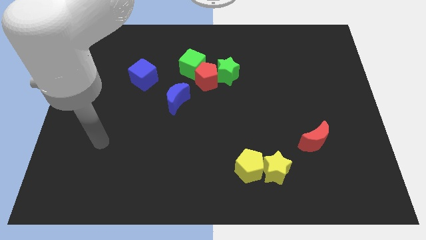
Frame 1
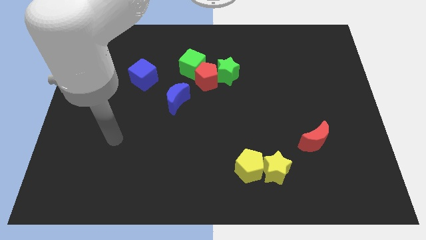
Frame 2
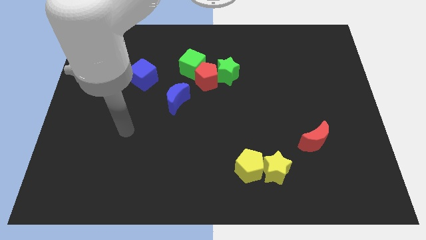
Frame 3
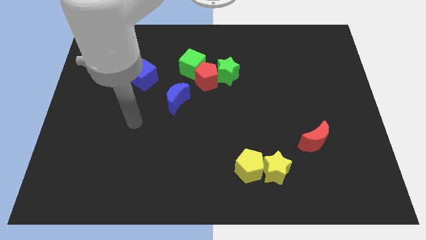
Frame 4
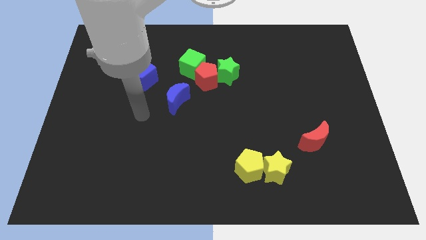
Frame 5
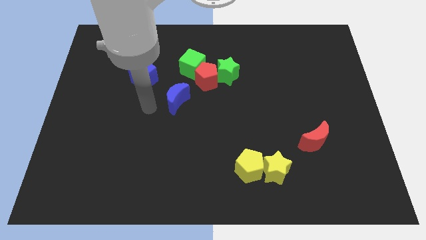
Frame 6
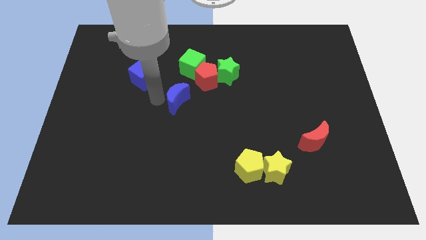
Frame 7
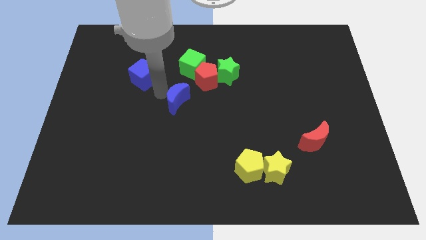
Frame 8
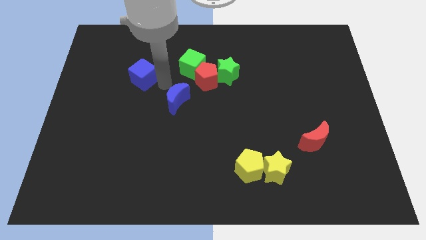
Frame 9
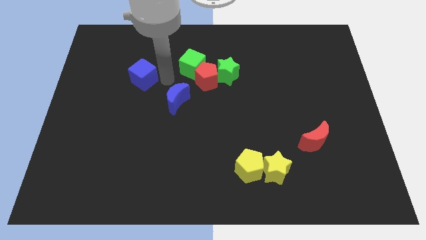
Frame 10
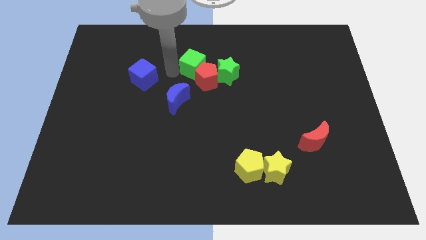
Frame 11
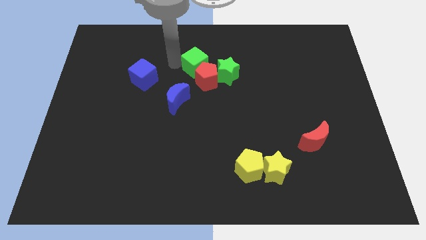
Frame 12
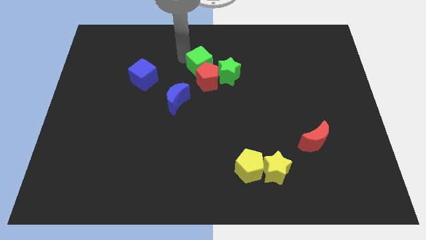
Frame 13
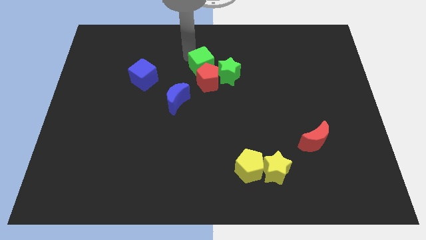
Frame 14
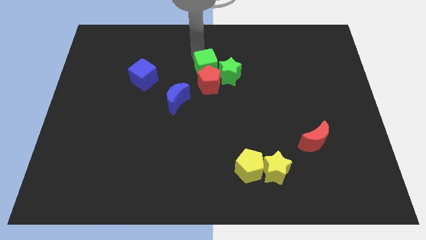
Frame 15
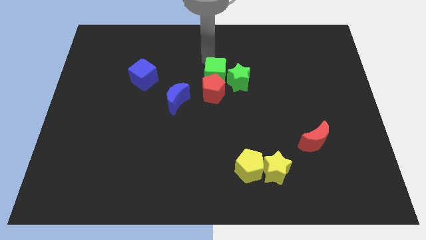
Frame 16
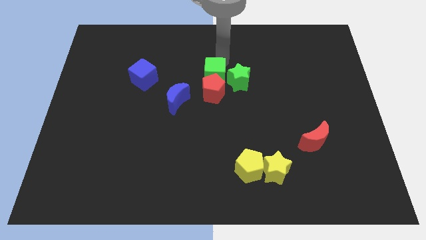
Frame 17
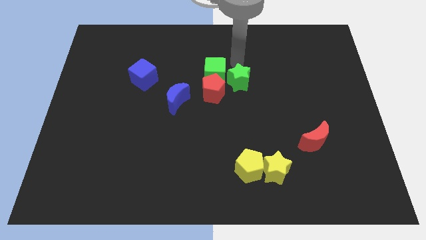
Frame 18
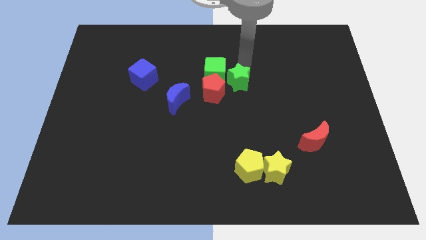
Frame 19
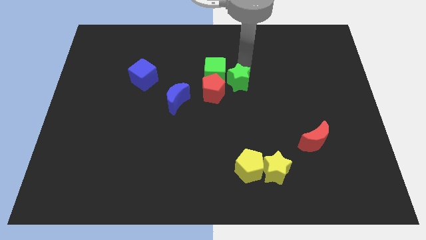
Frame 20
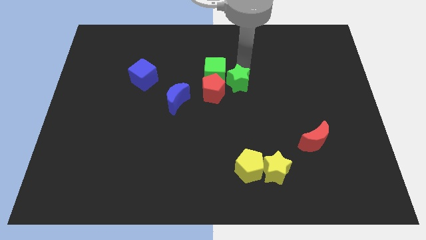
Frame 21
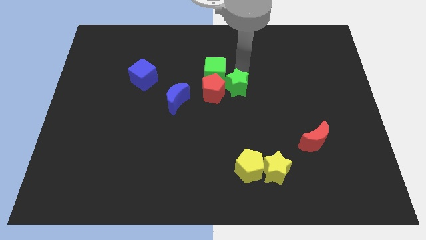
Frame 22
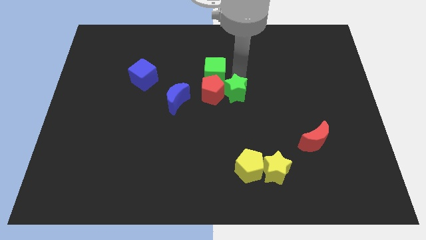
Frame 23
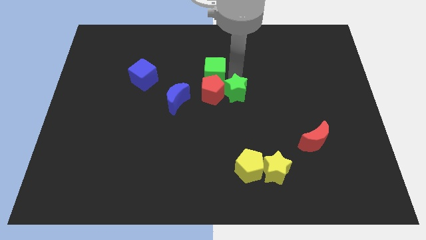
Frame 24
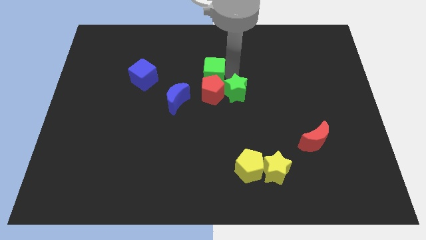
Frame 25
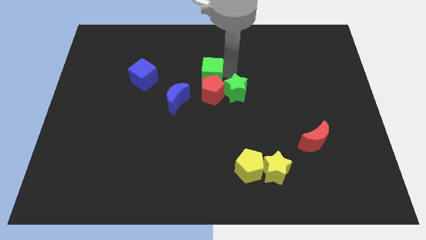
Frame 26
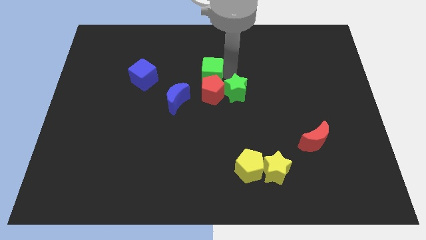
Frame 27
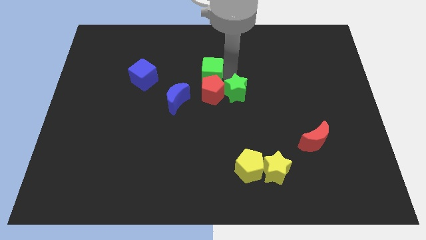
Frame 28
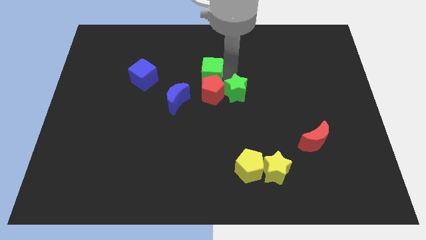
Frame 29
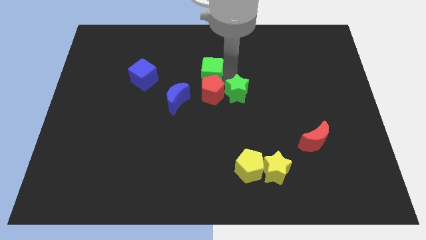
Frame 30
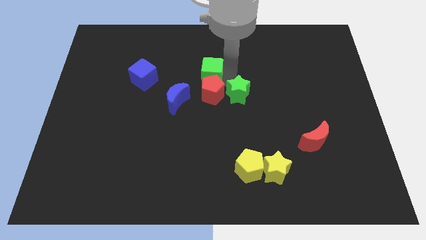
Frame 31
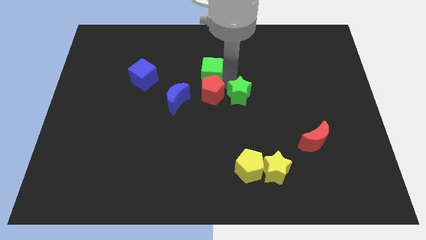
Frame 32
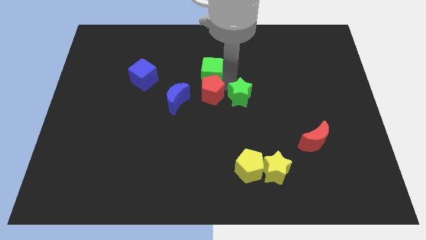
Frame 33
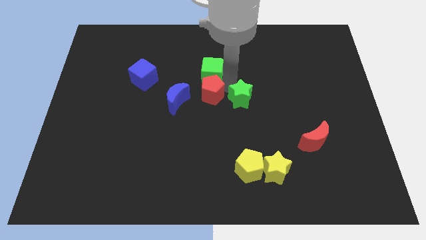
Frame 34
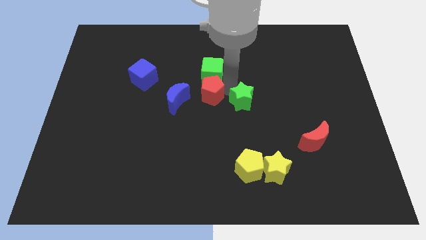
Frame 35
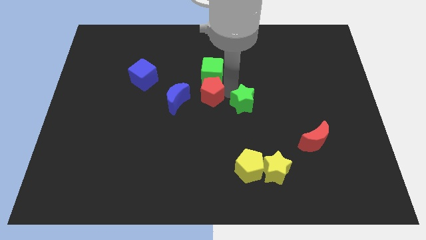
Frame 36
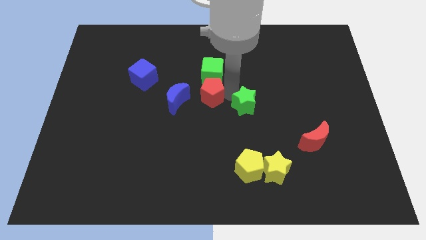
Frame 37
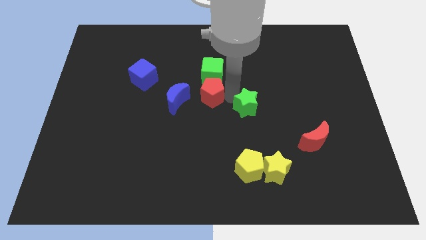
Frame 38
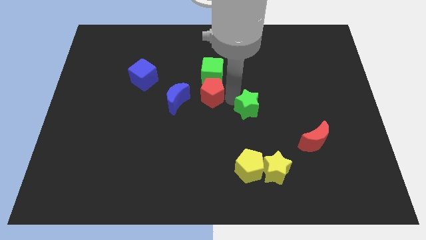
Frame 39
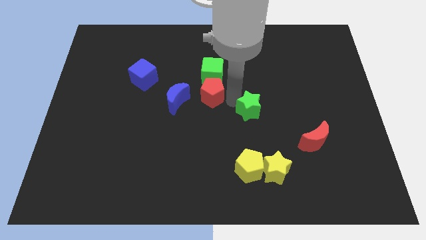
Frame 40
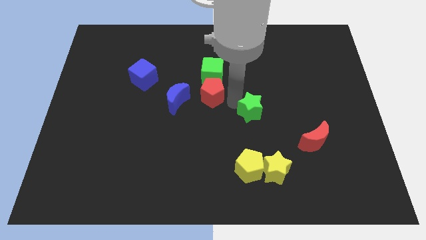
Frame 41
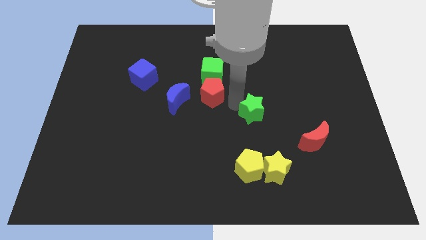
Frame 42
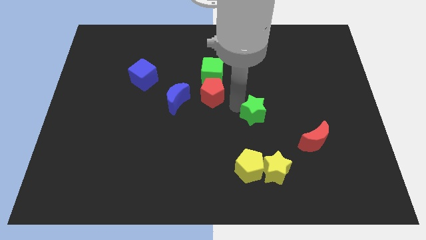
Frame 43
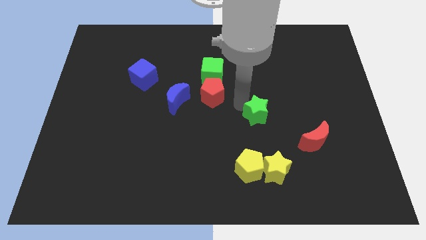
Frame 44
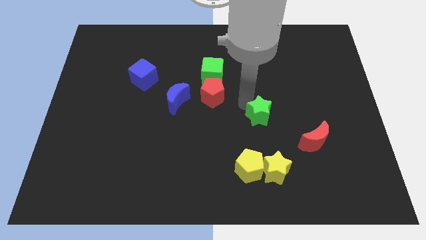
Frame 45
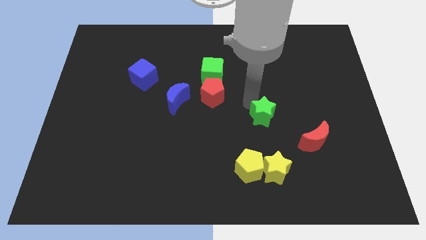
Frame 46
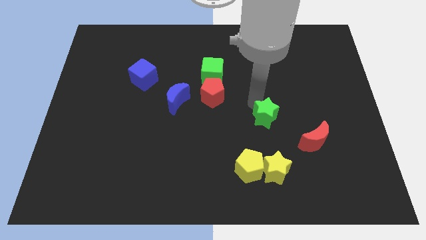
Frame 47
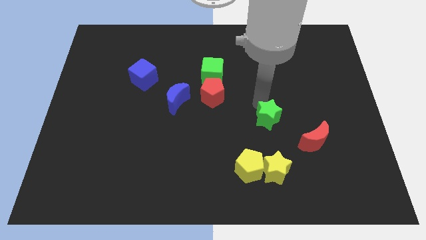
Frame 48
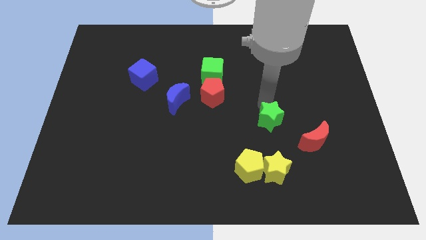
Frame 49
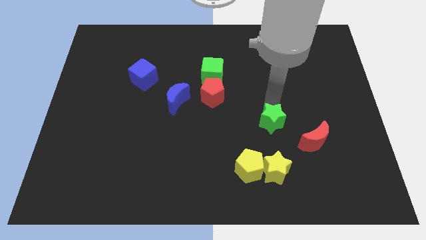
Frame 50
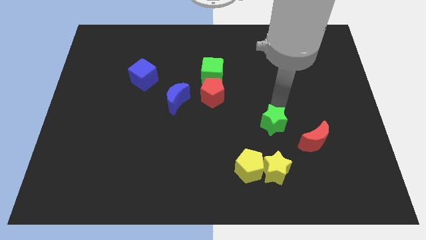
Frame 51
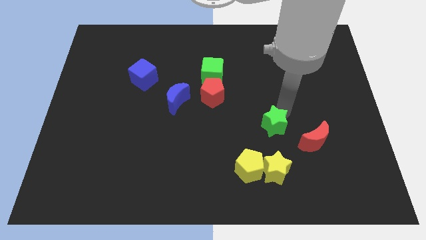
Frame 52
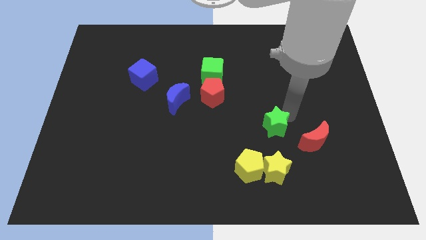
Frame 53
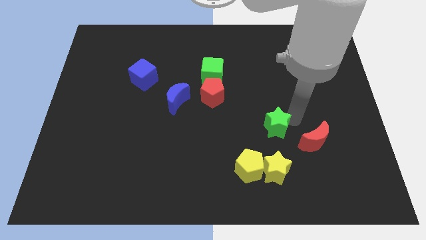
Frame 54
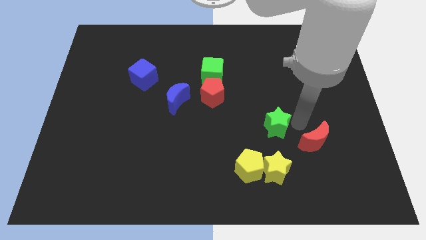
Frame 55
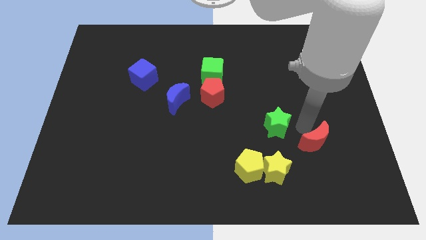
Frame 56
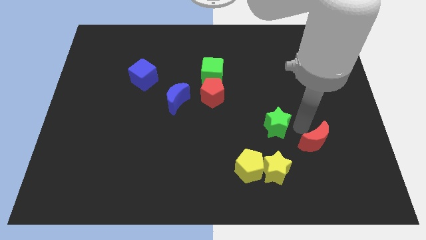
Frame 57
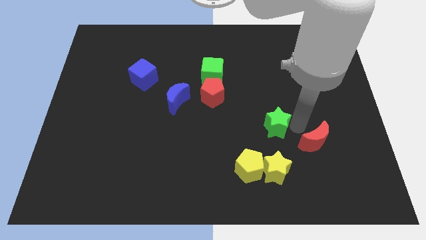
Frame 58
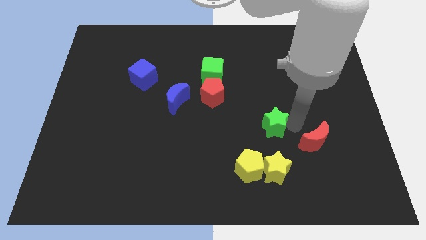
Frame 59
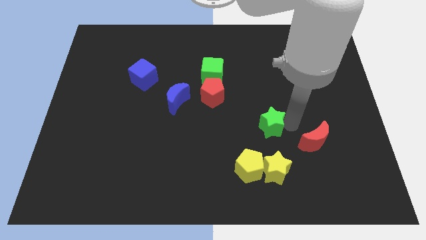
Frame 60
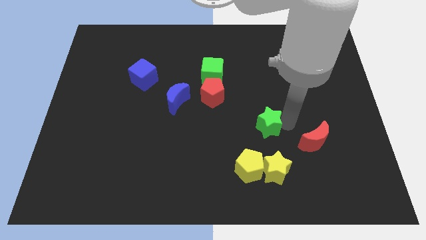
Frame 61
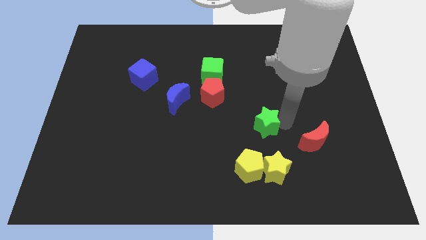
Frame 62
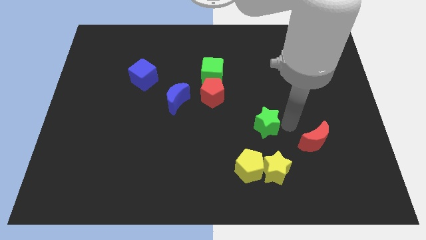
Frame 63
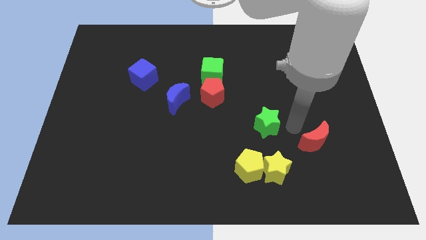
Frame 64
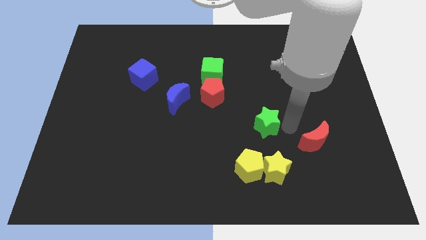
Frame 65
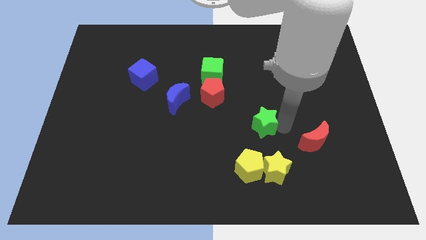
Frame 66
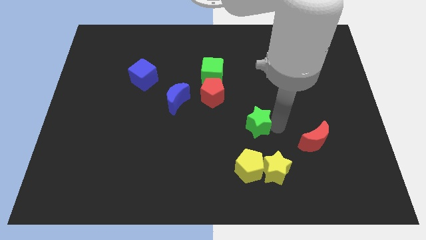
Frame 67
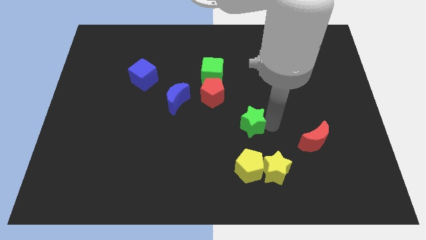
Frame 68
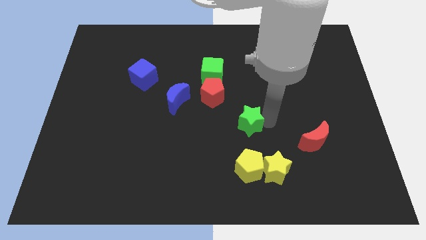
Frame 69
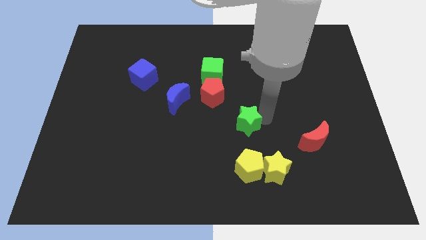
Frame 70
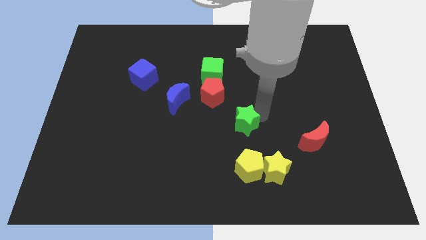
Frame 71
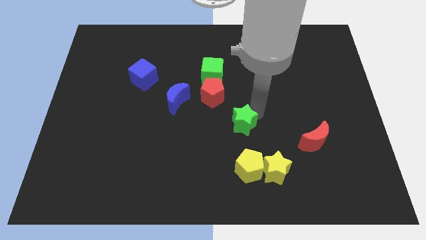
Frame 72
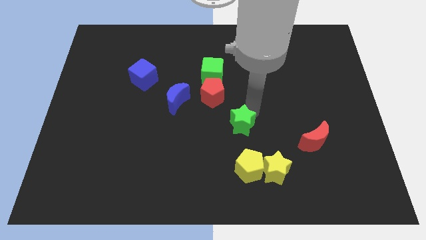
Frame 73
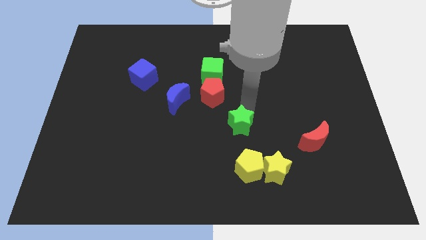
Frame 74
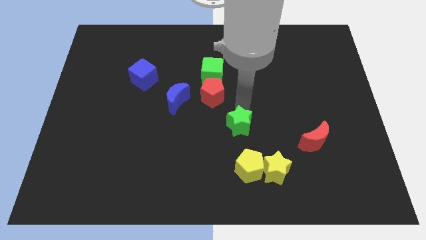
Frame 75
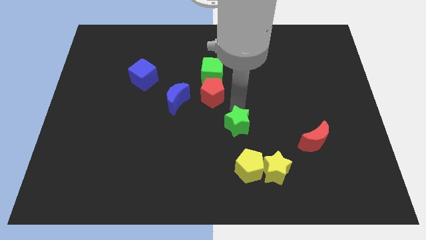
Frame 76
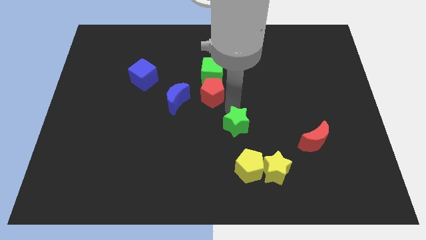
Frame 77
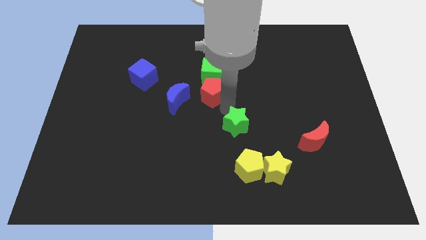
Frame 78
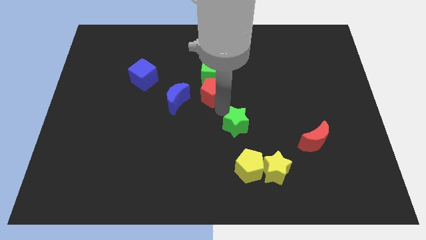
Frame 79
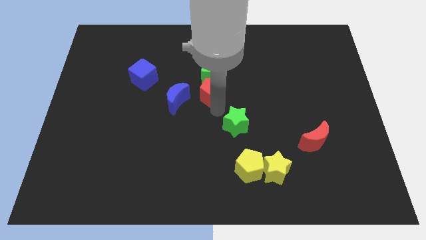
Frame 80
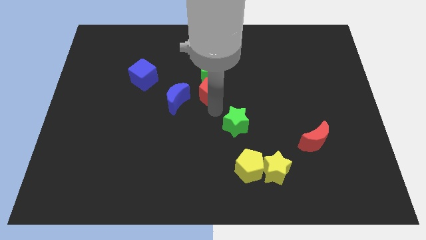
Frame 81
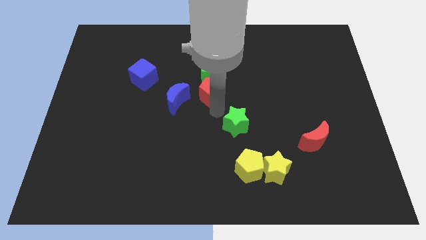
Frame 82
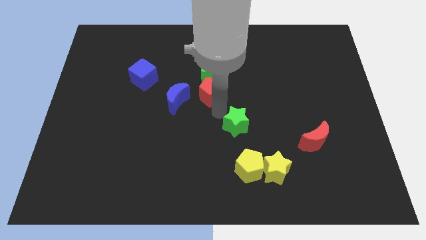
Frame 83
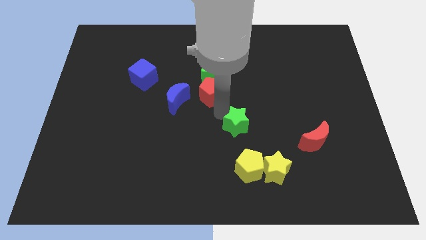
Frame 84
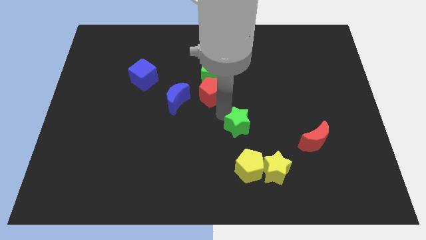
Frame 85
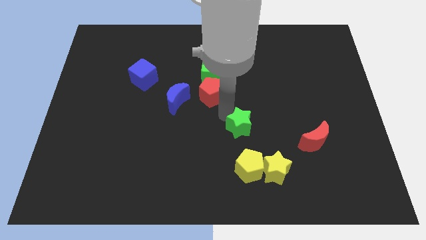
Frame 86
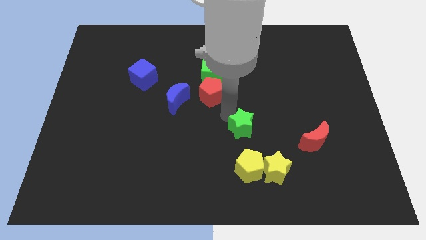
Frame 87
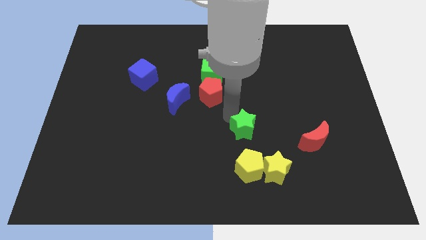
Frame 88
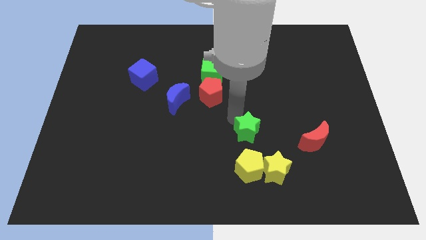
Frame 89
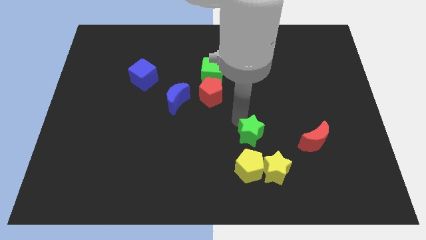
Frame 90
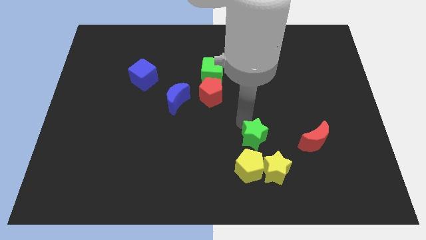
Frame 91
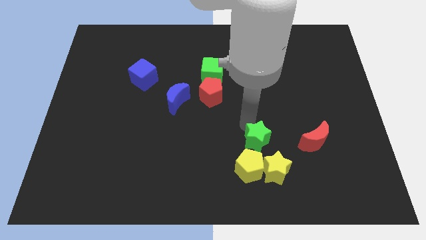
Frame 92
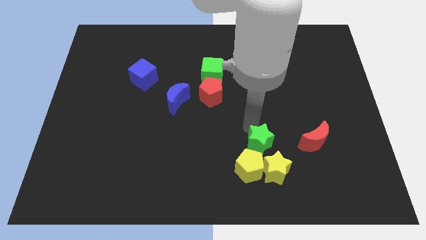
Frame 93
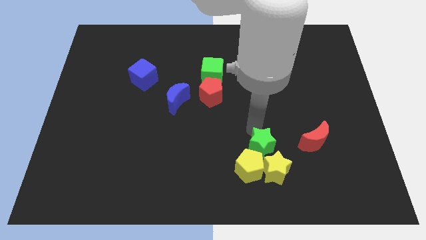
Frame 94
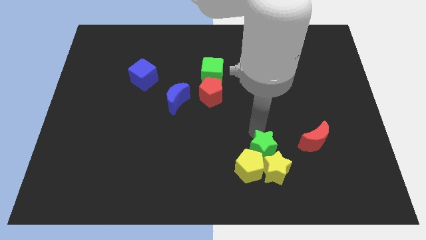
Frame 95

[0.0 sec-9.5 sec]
push the green star towards the yellow star
